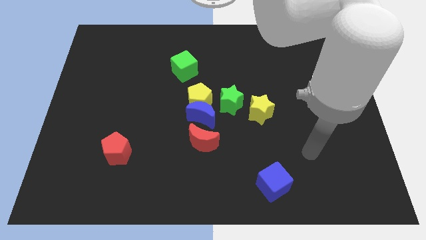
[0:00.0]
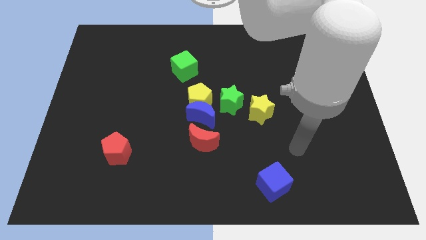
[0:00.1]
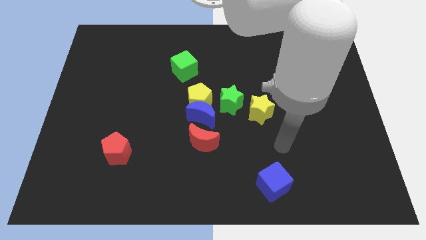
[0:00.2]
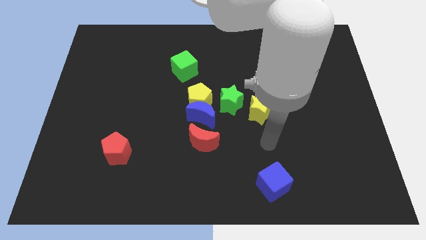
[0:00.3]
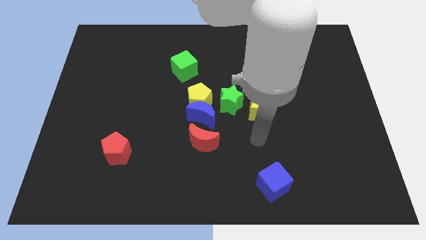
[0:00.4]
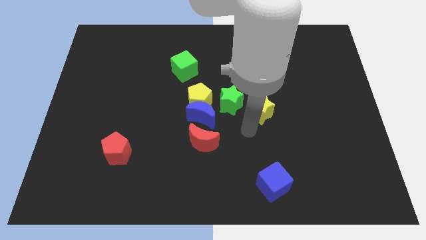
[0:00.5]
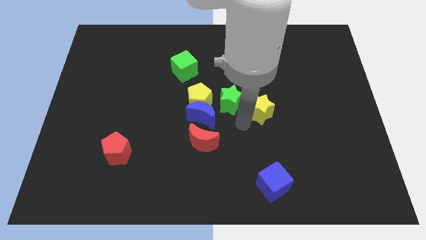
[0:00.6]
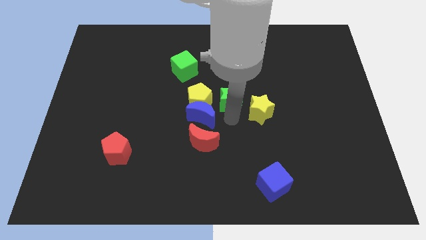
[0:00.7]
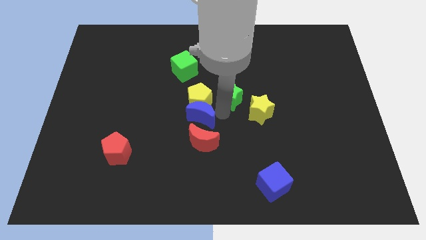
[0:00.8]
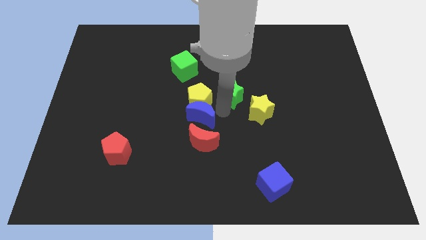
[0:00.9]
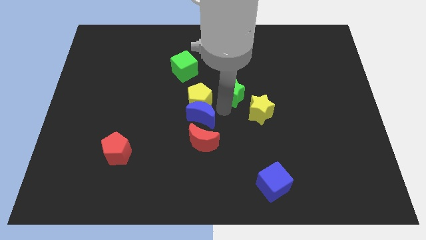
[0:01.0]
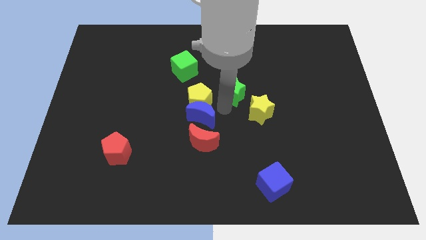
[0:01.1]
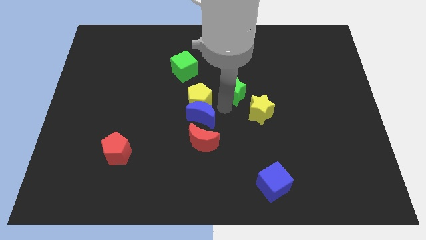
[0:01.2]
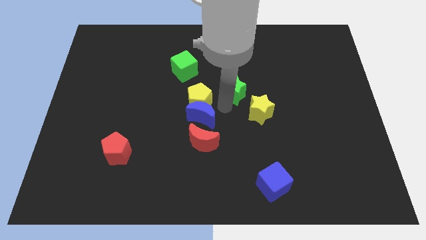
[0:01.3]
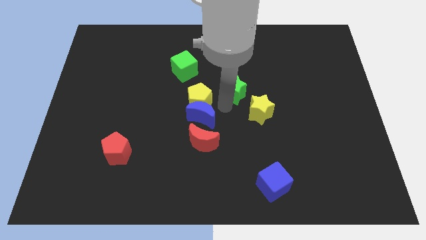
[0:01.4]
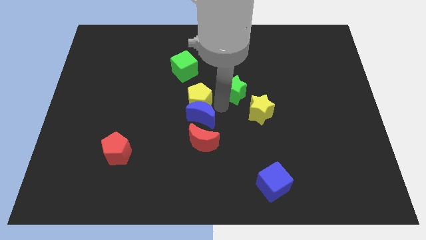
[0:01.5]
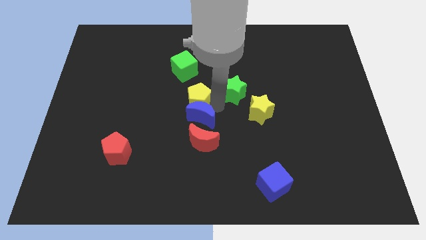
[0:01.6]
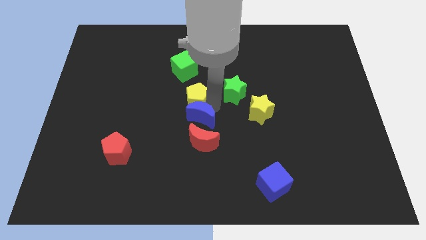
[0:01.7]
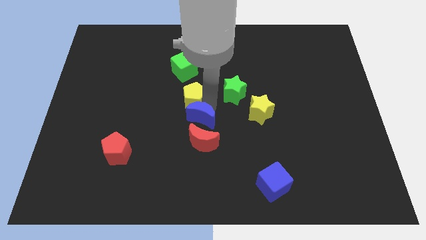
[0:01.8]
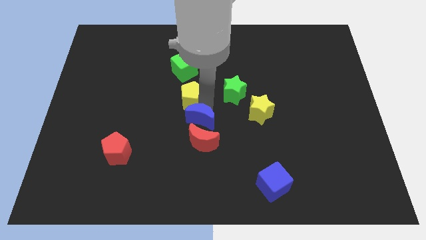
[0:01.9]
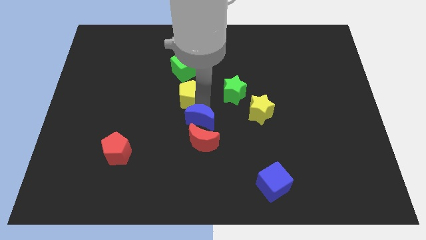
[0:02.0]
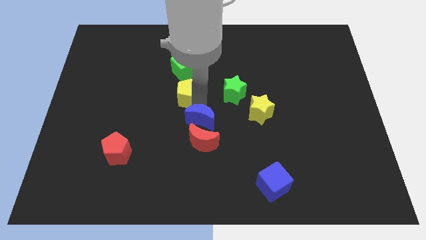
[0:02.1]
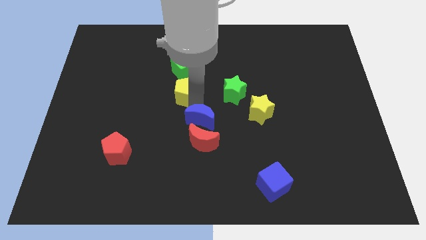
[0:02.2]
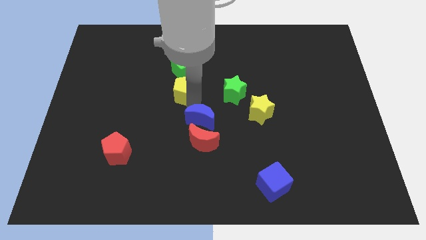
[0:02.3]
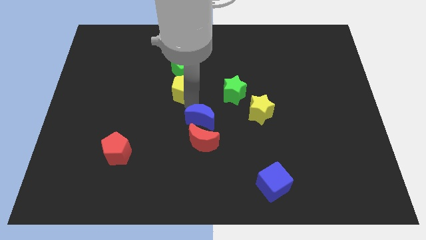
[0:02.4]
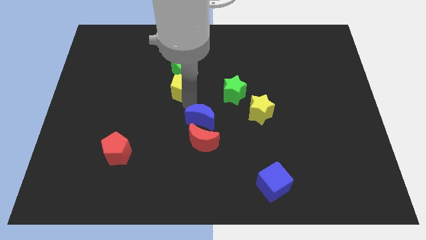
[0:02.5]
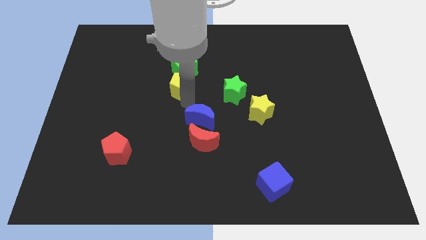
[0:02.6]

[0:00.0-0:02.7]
move the yellow pentagon away from the blue moon and green star

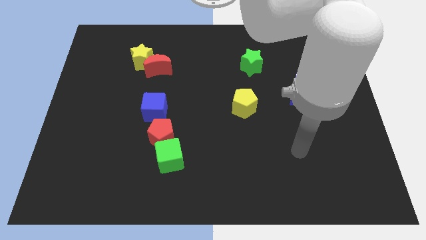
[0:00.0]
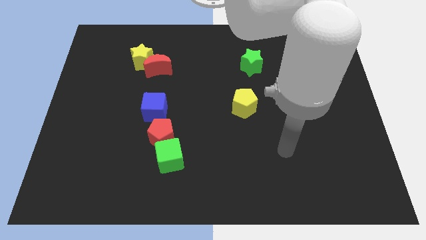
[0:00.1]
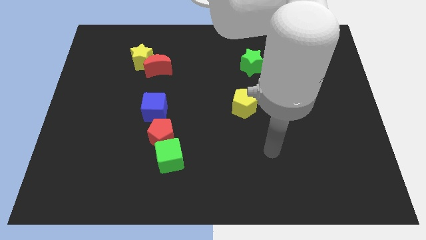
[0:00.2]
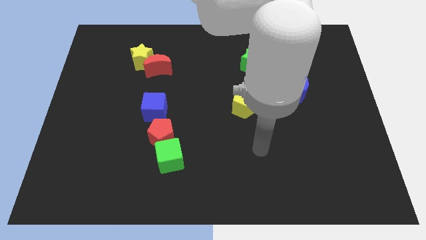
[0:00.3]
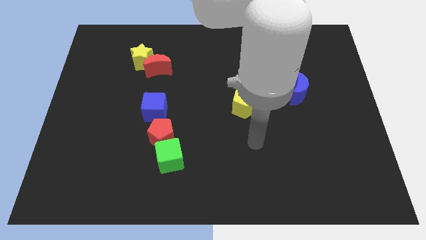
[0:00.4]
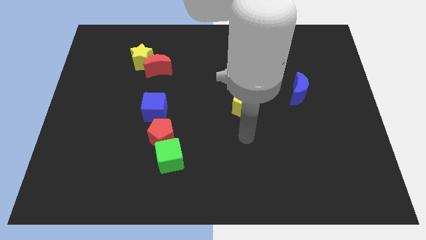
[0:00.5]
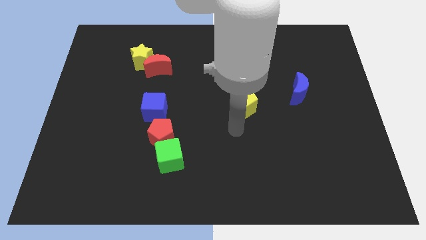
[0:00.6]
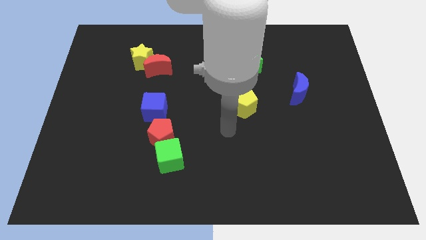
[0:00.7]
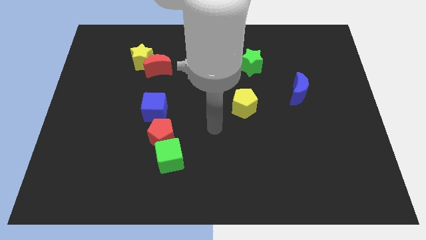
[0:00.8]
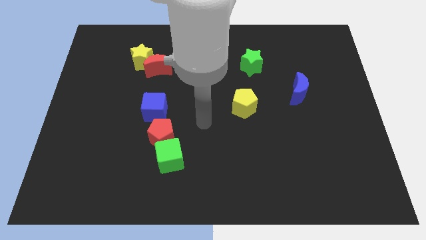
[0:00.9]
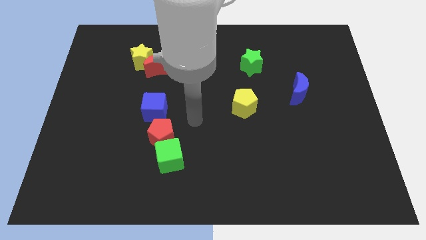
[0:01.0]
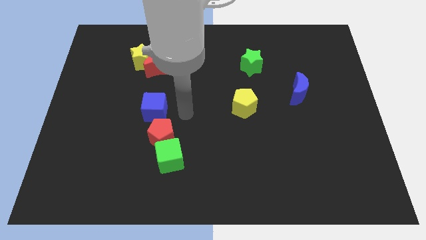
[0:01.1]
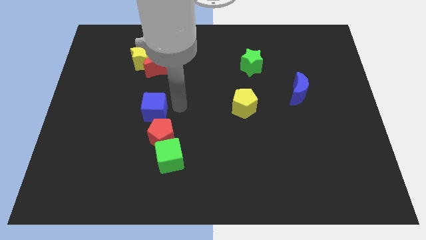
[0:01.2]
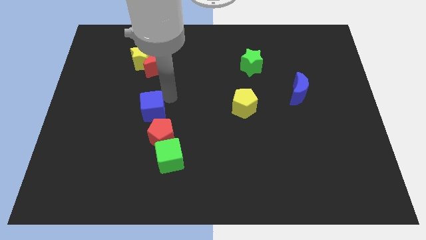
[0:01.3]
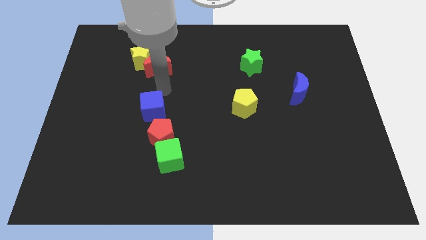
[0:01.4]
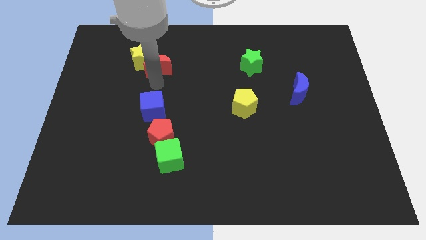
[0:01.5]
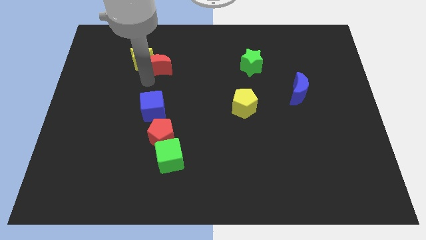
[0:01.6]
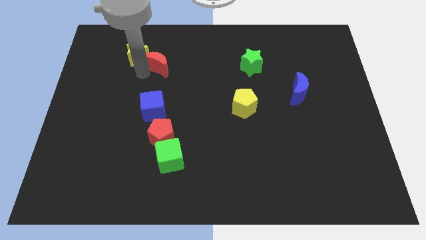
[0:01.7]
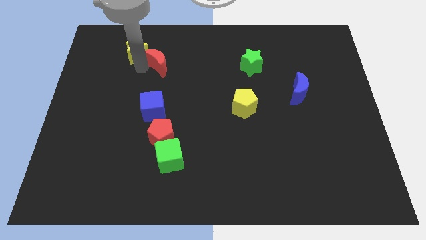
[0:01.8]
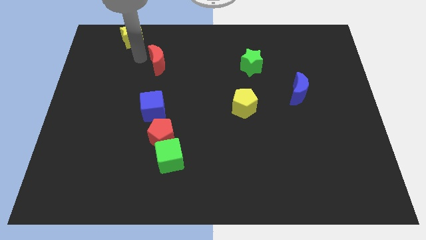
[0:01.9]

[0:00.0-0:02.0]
separate the red moon from the yellow star

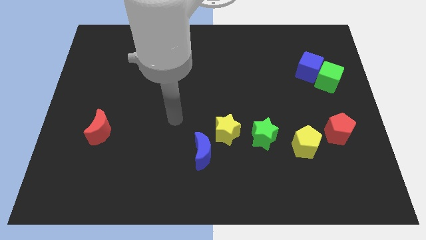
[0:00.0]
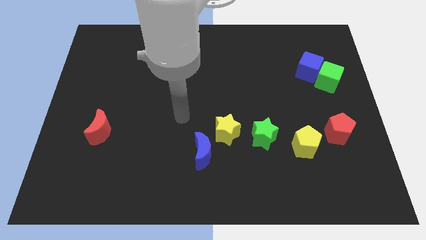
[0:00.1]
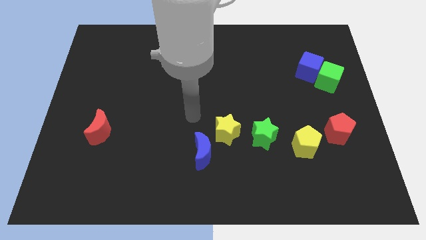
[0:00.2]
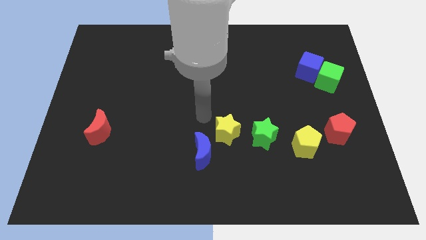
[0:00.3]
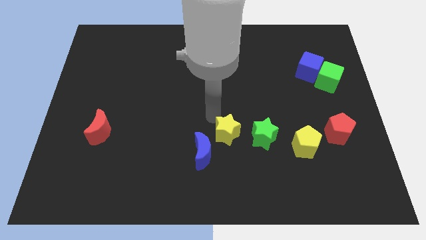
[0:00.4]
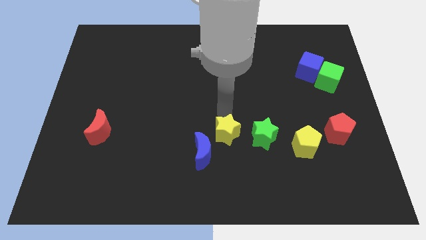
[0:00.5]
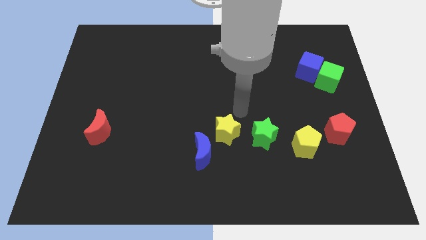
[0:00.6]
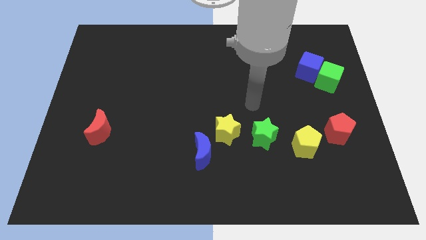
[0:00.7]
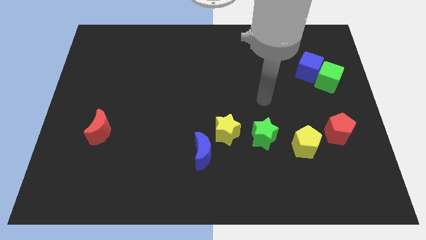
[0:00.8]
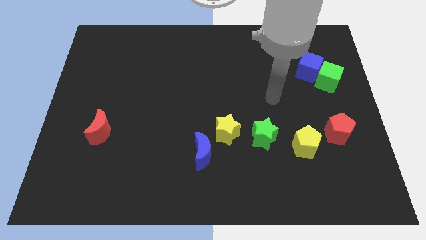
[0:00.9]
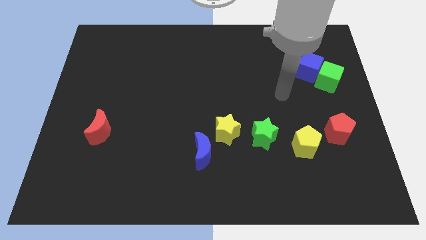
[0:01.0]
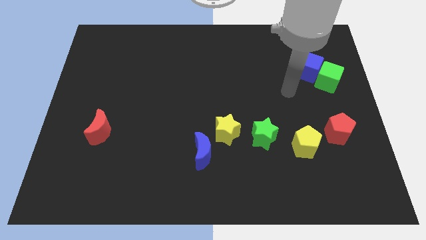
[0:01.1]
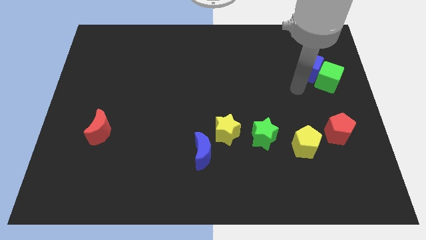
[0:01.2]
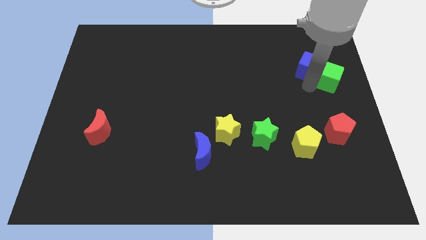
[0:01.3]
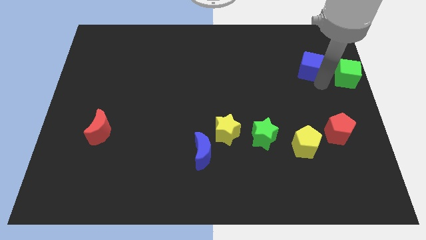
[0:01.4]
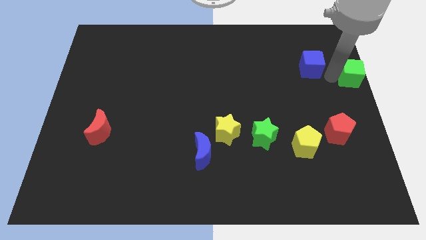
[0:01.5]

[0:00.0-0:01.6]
pull the blue cube apart from the green cube

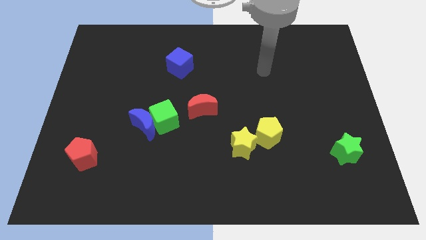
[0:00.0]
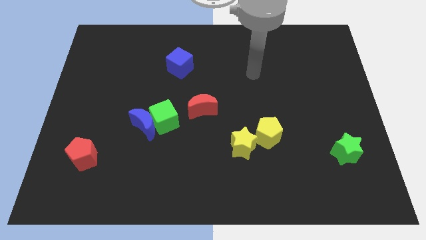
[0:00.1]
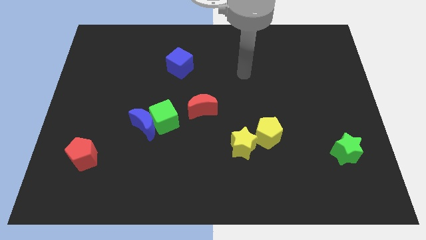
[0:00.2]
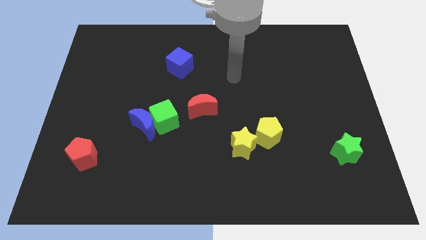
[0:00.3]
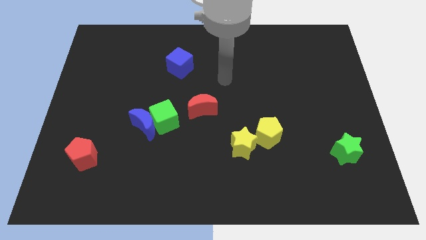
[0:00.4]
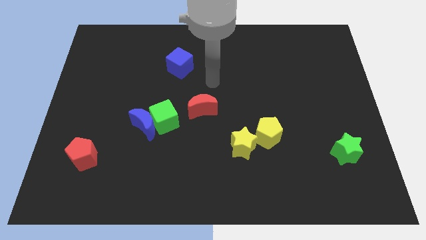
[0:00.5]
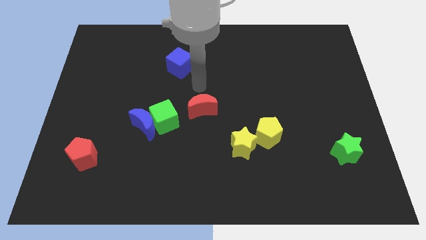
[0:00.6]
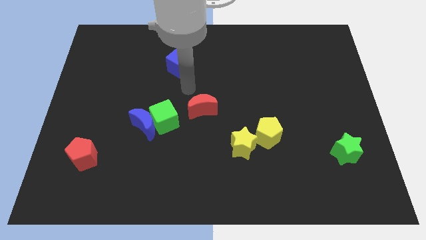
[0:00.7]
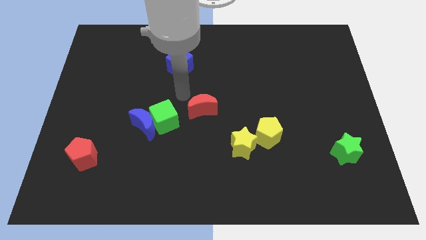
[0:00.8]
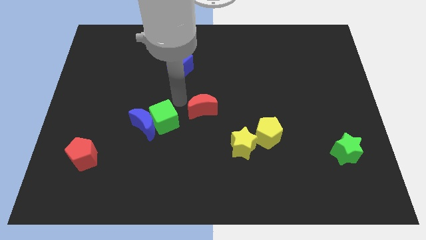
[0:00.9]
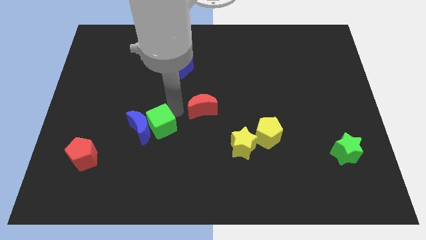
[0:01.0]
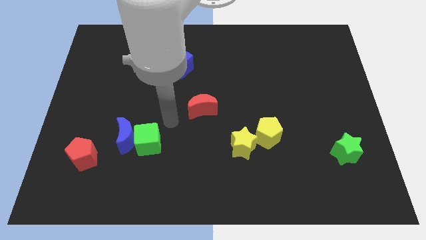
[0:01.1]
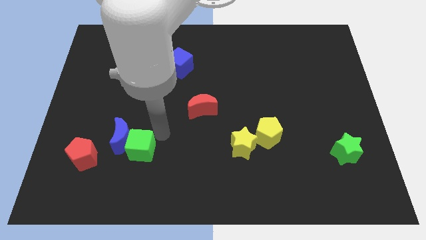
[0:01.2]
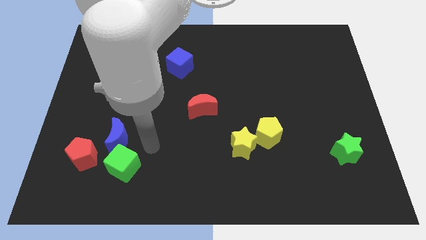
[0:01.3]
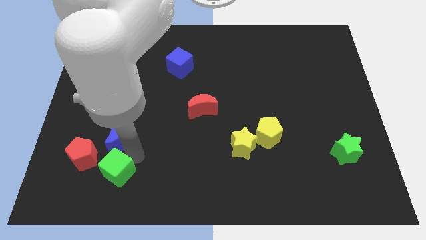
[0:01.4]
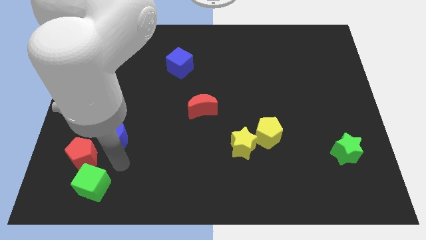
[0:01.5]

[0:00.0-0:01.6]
pull the blue moon apart from the green cube

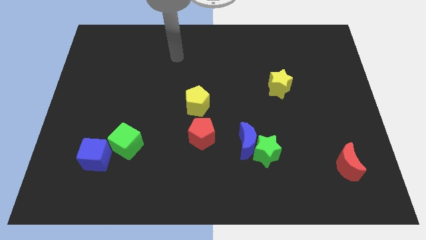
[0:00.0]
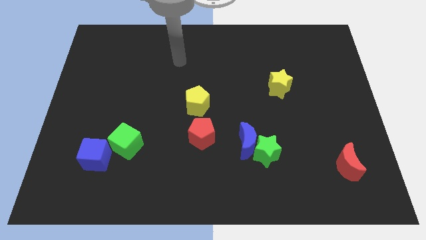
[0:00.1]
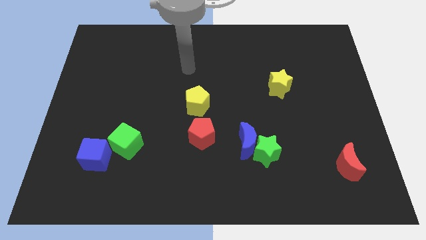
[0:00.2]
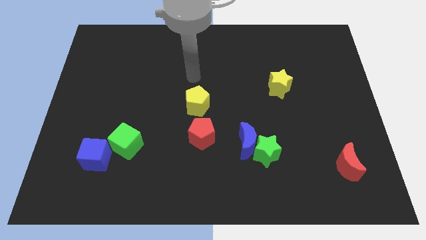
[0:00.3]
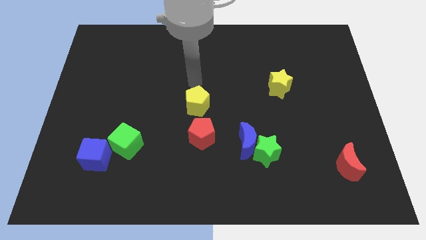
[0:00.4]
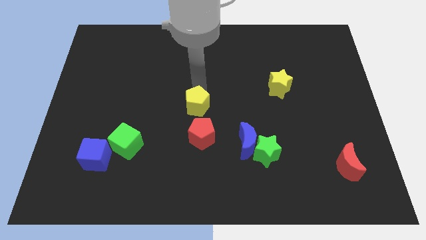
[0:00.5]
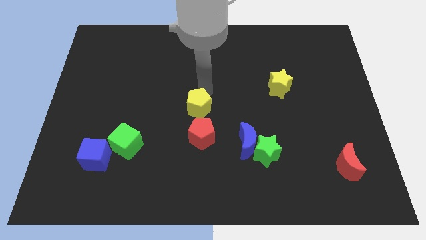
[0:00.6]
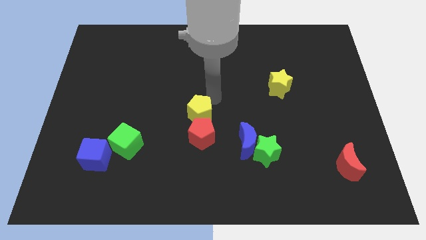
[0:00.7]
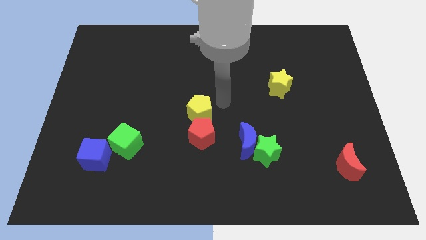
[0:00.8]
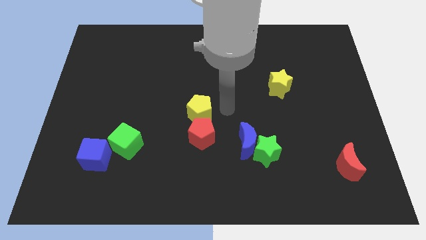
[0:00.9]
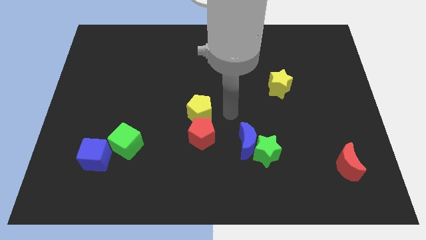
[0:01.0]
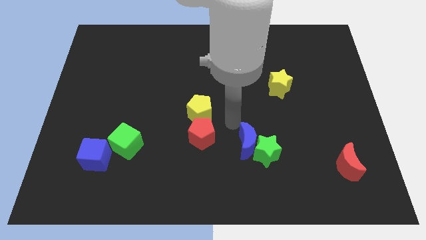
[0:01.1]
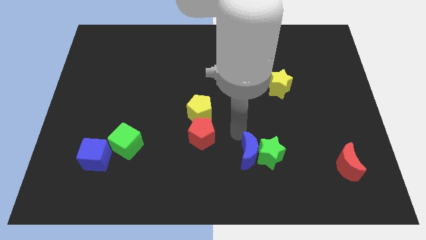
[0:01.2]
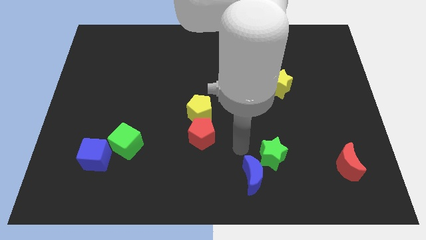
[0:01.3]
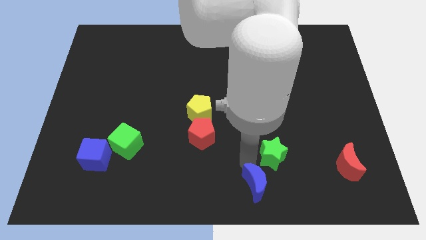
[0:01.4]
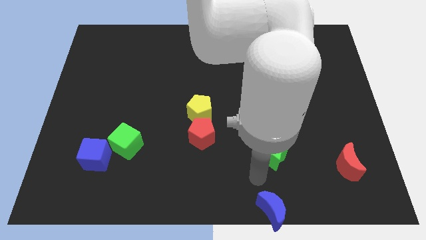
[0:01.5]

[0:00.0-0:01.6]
separate the green star from the blue moon
